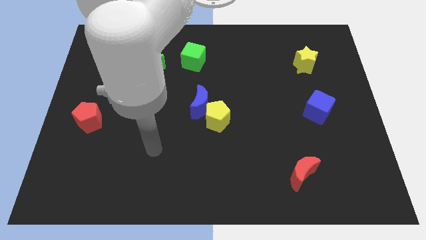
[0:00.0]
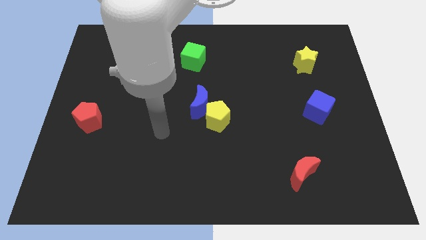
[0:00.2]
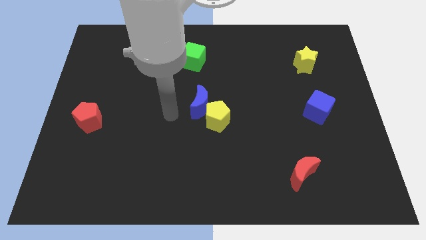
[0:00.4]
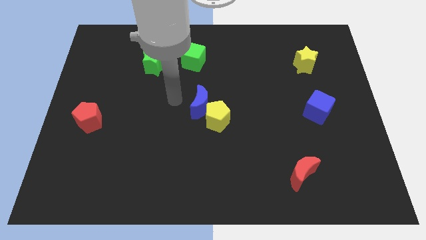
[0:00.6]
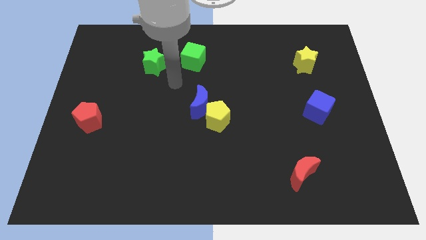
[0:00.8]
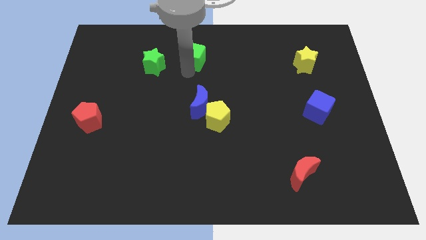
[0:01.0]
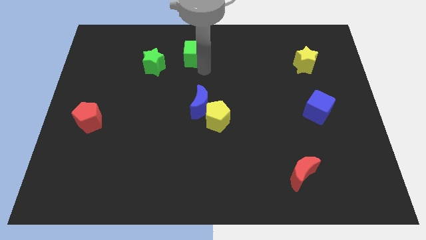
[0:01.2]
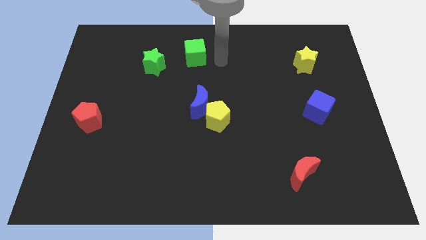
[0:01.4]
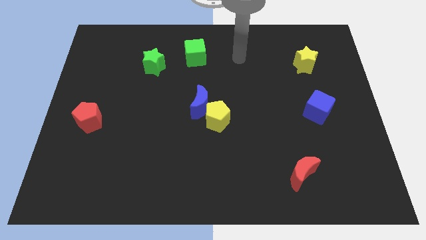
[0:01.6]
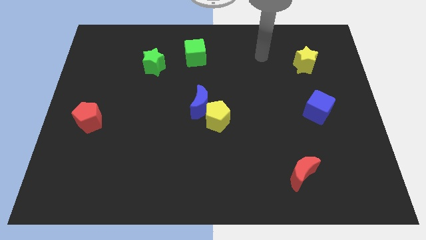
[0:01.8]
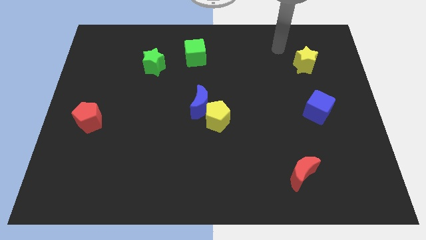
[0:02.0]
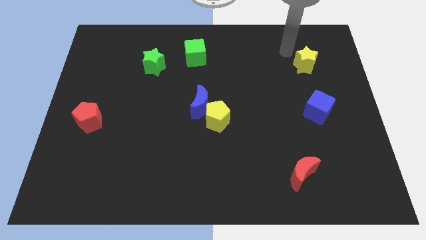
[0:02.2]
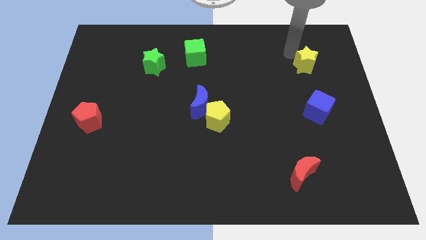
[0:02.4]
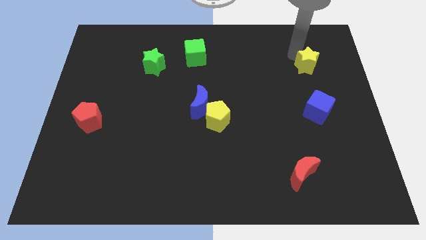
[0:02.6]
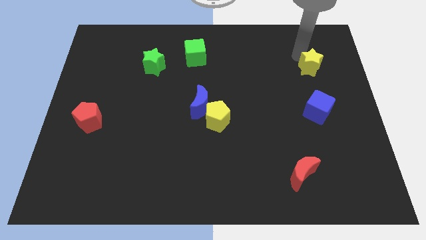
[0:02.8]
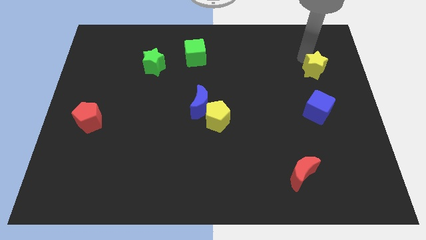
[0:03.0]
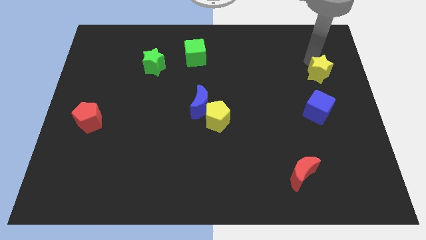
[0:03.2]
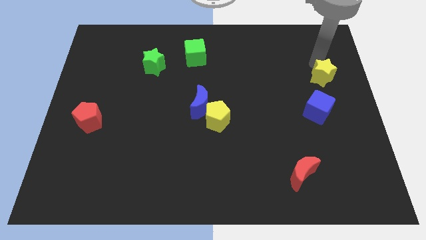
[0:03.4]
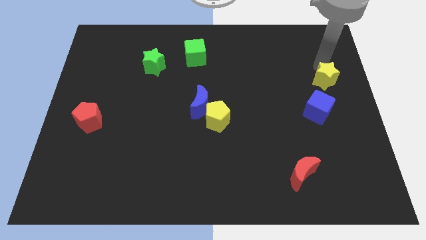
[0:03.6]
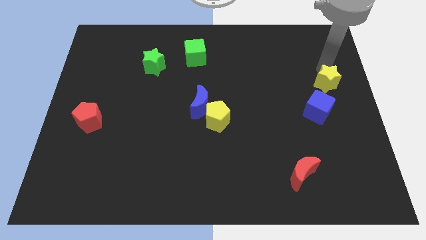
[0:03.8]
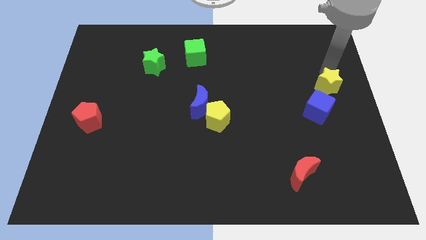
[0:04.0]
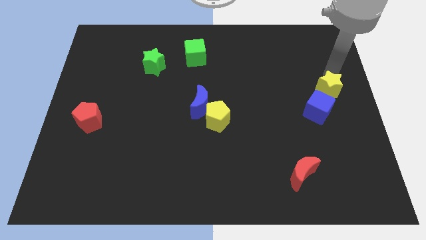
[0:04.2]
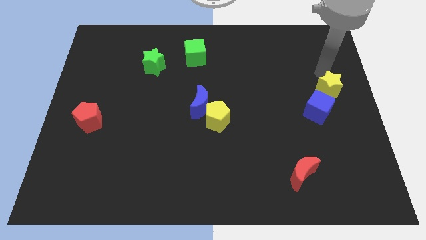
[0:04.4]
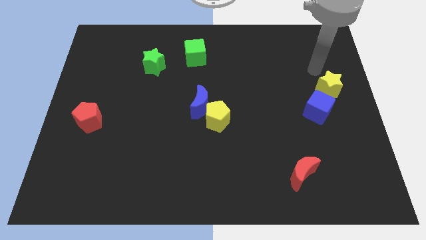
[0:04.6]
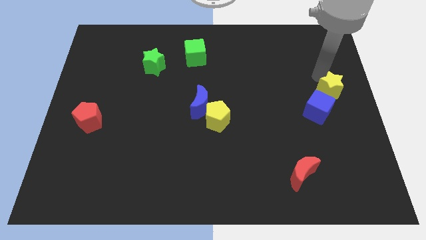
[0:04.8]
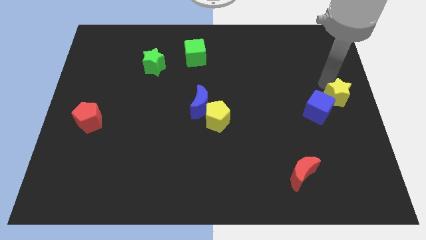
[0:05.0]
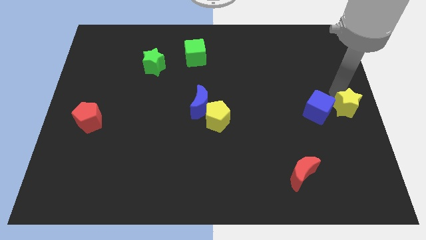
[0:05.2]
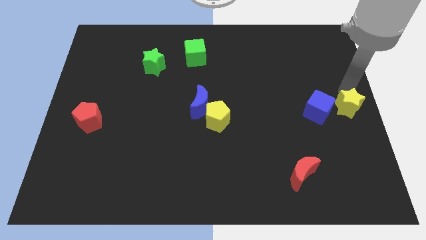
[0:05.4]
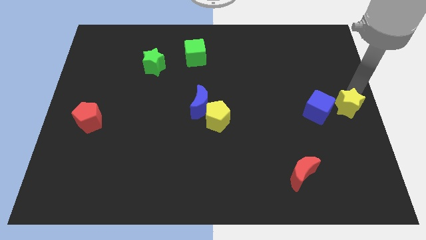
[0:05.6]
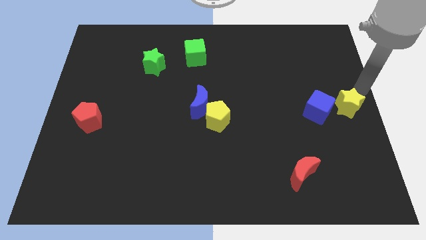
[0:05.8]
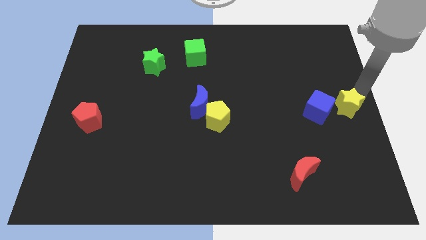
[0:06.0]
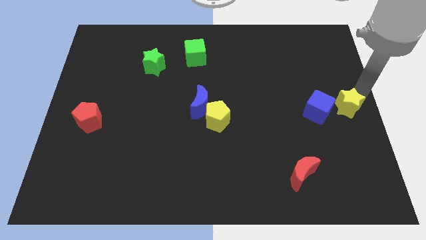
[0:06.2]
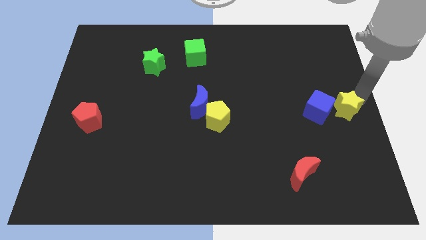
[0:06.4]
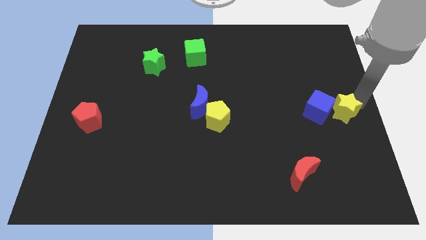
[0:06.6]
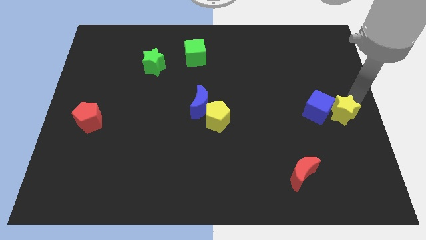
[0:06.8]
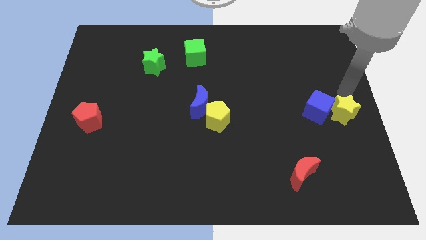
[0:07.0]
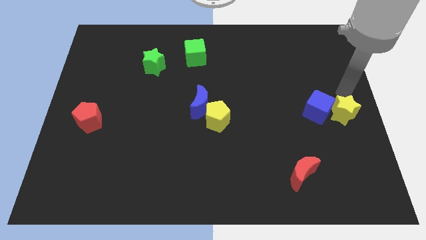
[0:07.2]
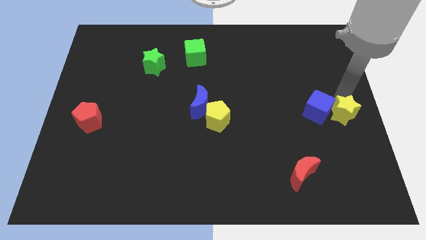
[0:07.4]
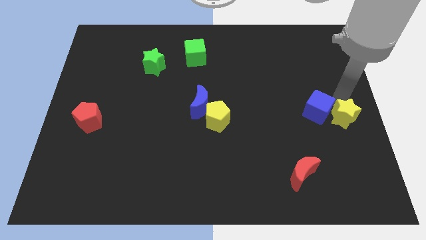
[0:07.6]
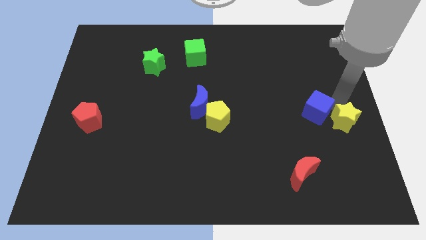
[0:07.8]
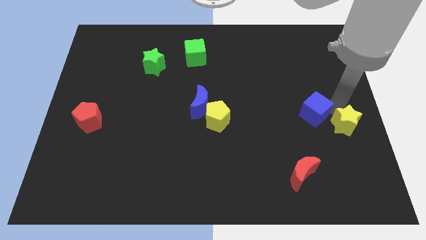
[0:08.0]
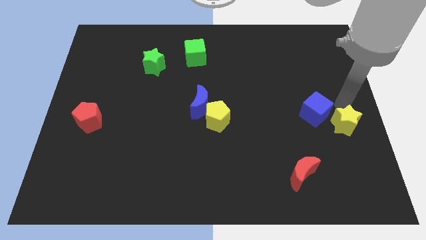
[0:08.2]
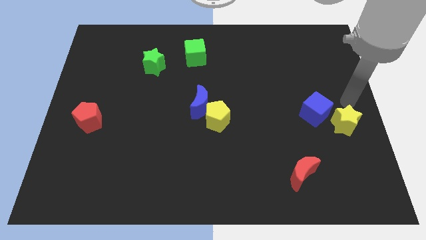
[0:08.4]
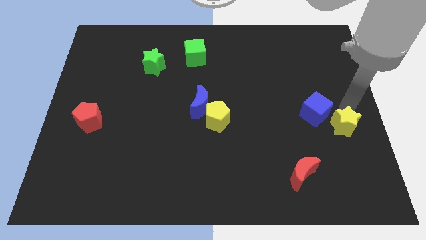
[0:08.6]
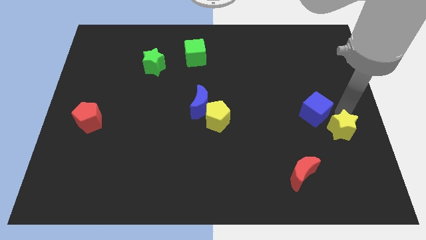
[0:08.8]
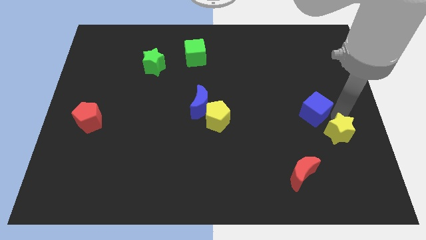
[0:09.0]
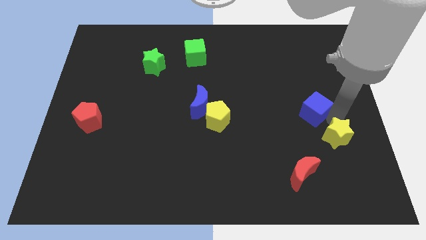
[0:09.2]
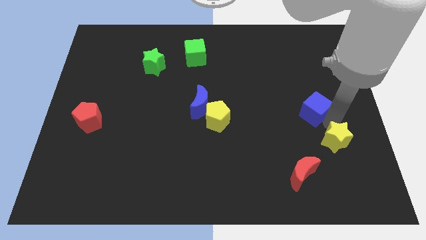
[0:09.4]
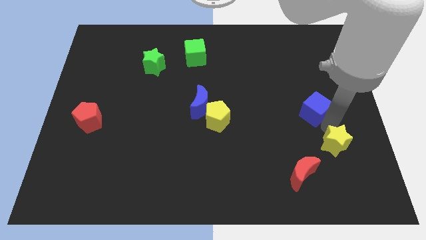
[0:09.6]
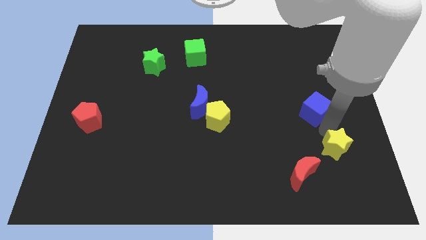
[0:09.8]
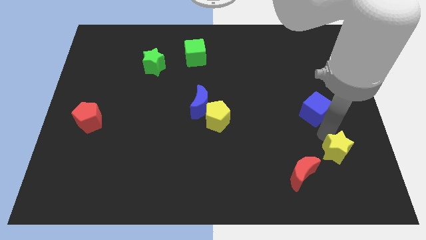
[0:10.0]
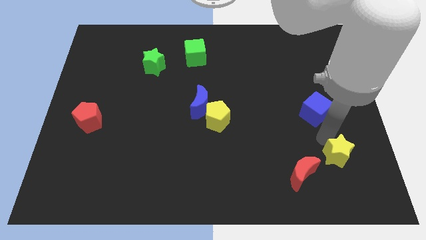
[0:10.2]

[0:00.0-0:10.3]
slide the yellow star just right of the red moon

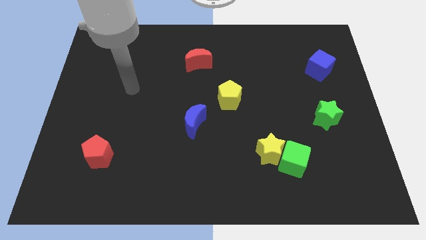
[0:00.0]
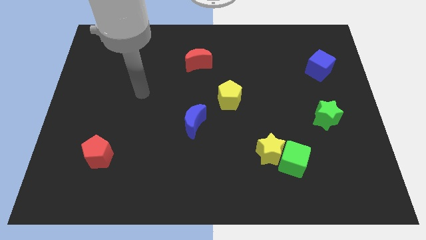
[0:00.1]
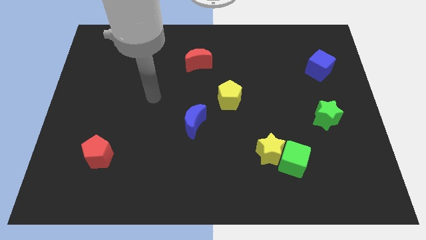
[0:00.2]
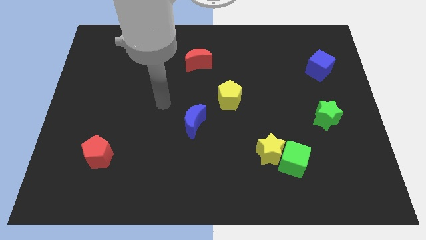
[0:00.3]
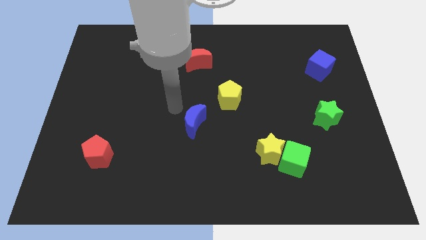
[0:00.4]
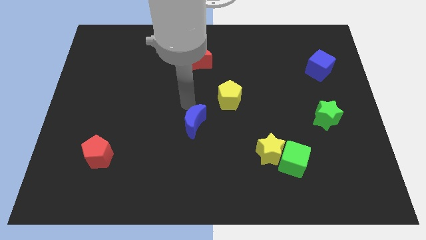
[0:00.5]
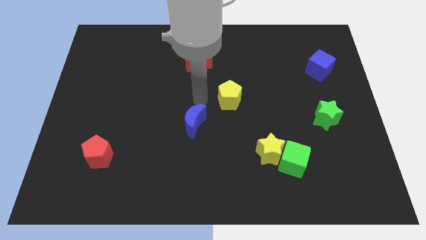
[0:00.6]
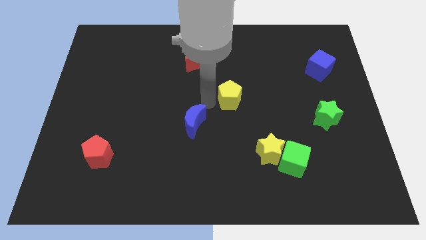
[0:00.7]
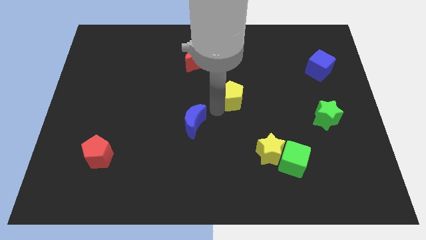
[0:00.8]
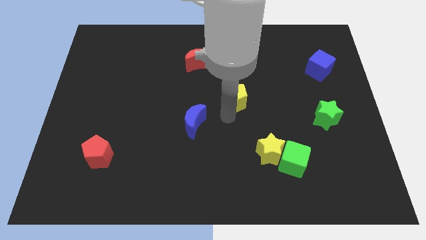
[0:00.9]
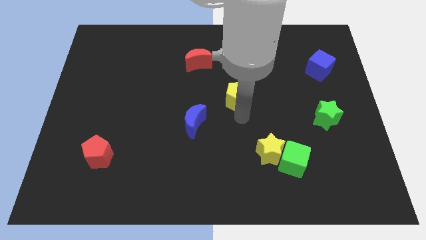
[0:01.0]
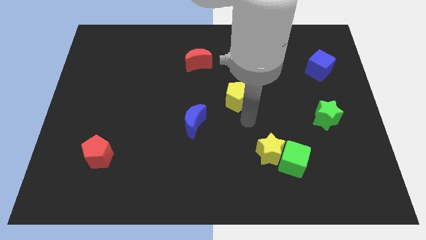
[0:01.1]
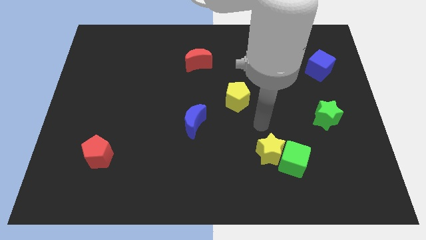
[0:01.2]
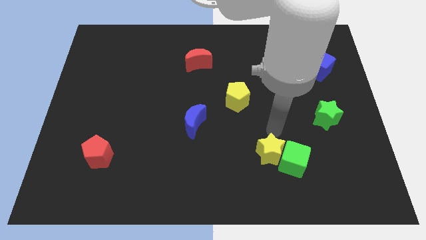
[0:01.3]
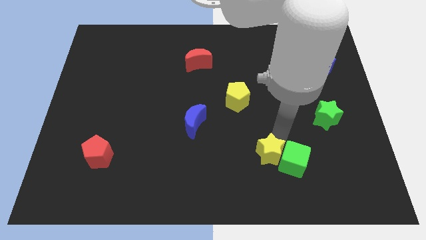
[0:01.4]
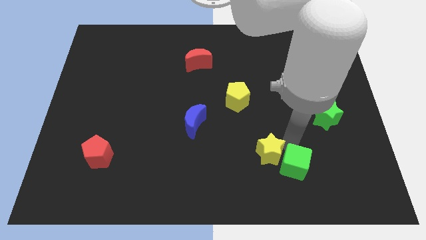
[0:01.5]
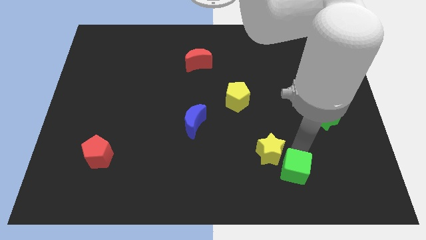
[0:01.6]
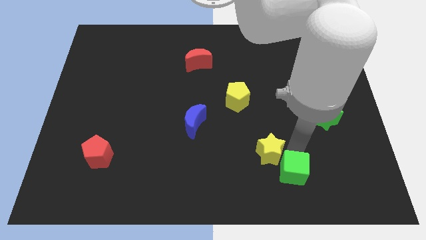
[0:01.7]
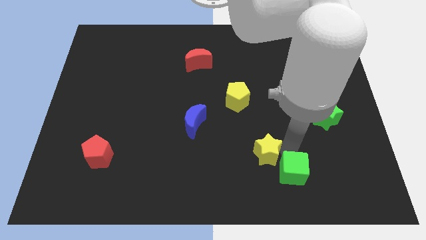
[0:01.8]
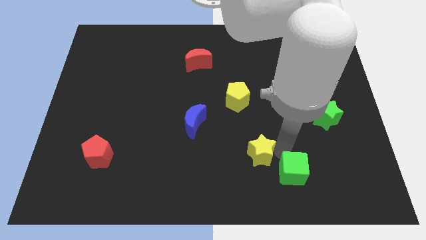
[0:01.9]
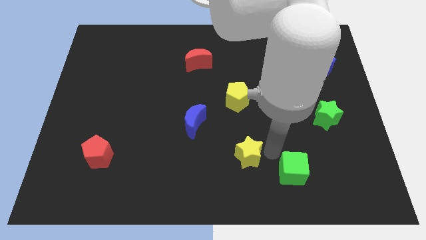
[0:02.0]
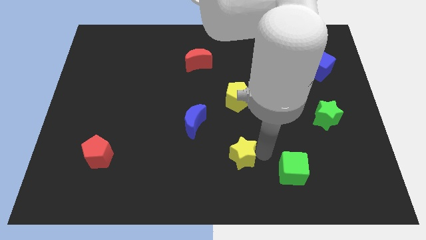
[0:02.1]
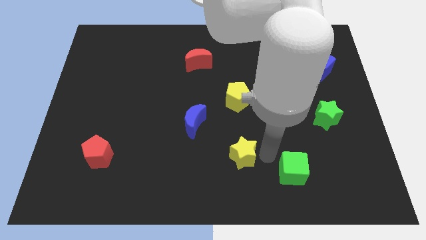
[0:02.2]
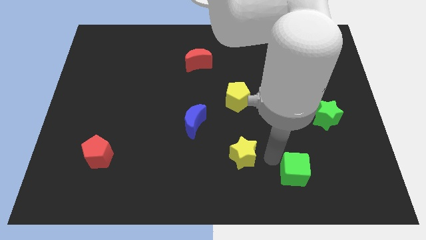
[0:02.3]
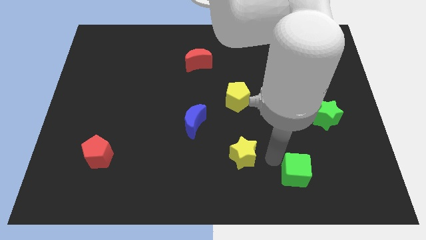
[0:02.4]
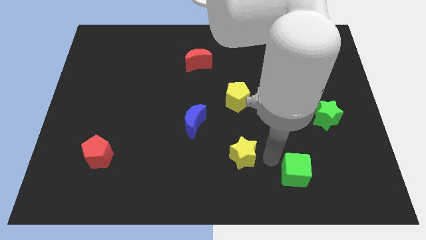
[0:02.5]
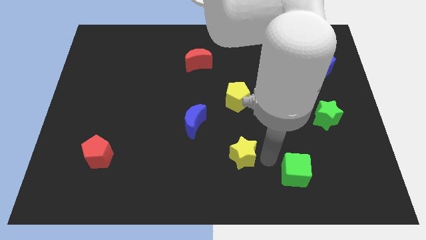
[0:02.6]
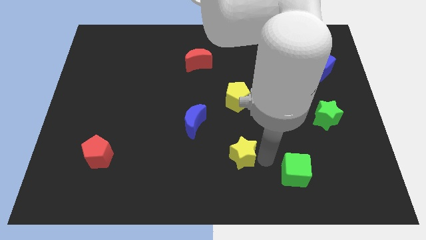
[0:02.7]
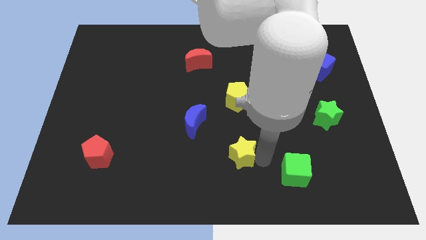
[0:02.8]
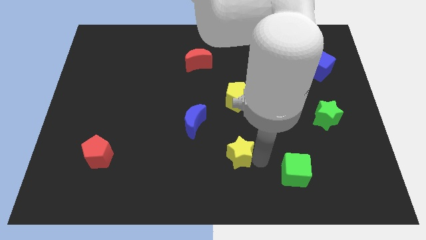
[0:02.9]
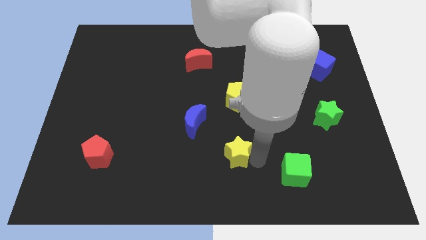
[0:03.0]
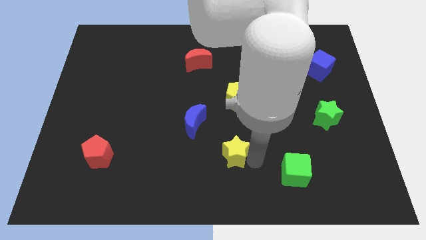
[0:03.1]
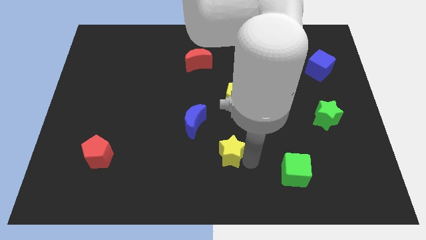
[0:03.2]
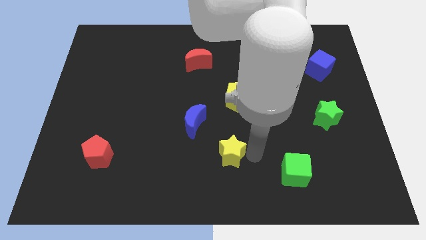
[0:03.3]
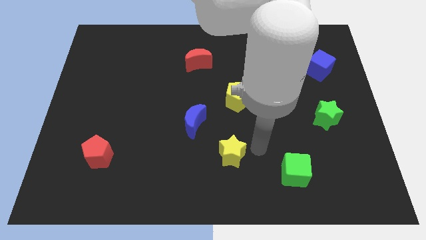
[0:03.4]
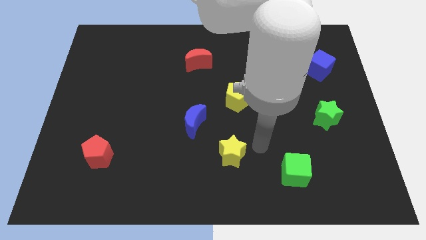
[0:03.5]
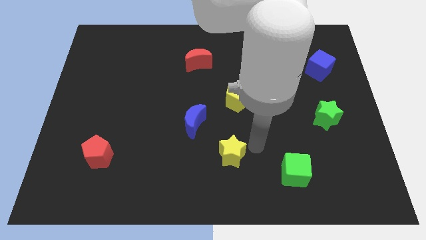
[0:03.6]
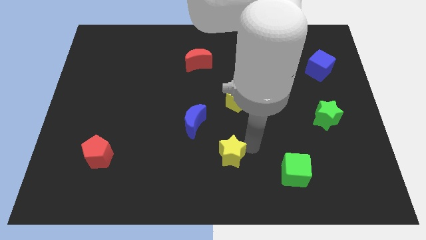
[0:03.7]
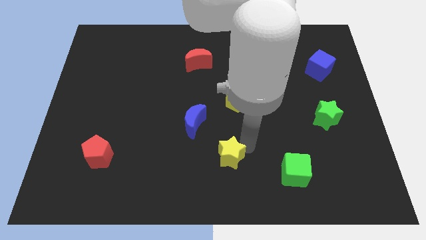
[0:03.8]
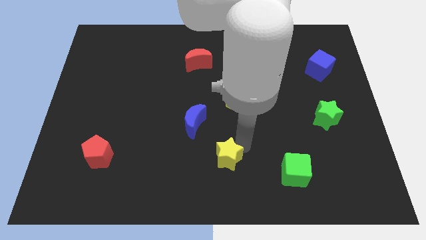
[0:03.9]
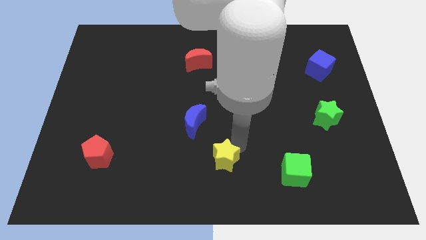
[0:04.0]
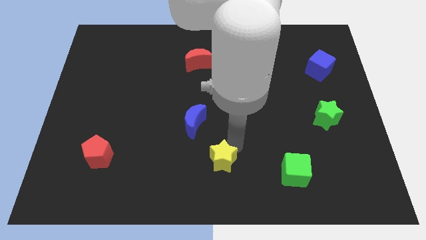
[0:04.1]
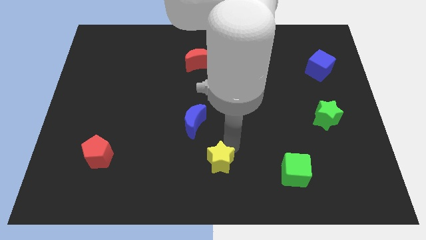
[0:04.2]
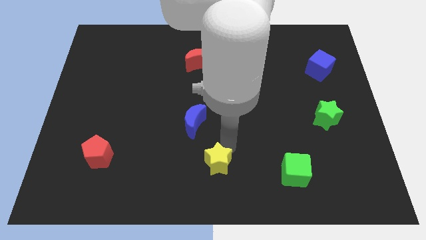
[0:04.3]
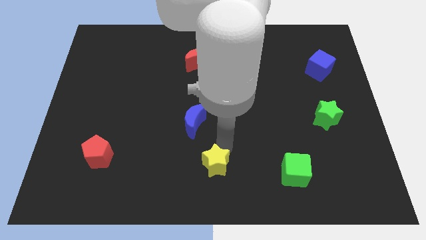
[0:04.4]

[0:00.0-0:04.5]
move the yellow star to the bottom side of the blue moon
